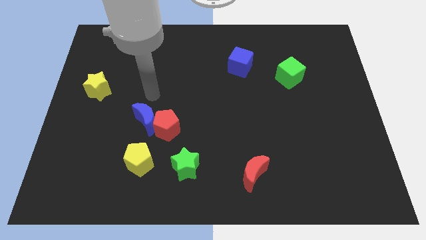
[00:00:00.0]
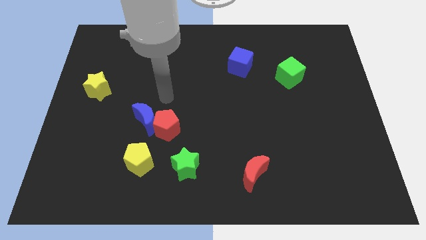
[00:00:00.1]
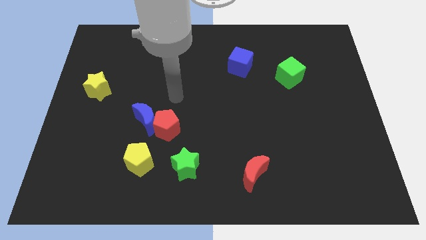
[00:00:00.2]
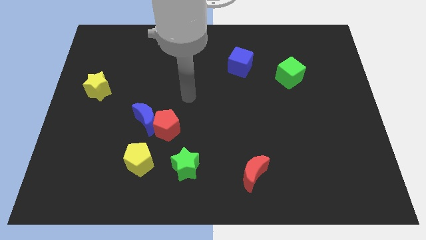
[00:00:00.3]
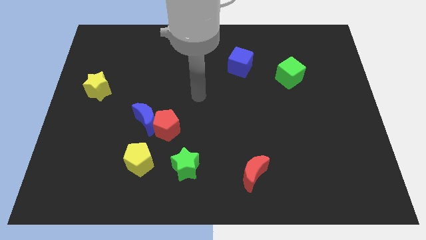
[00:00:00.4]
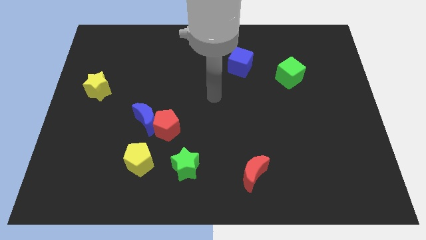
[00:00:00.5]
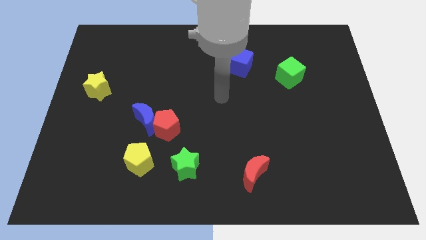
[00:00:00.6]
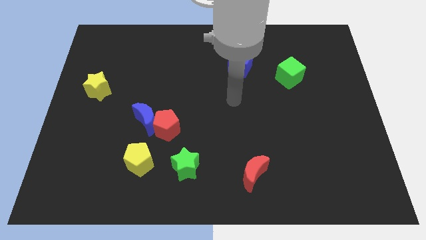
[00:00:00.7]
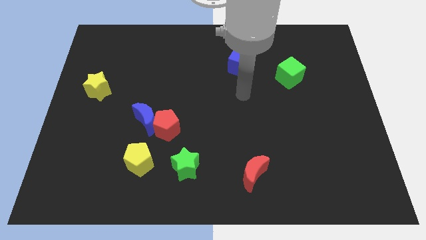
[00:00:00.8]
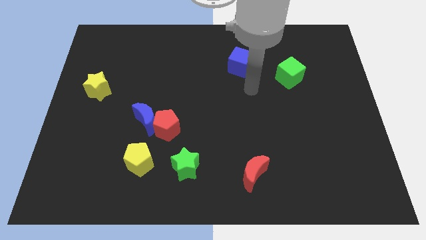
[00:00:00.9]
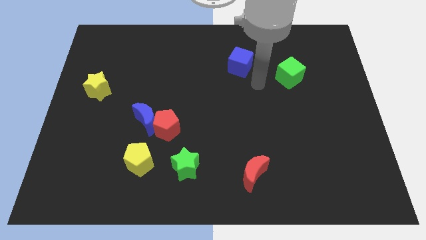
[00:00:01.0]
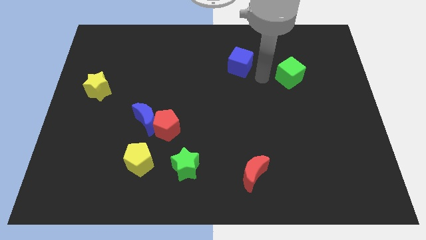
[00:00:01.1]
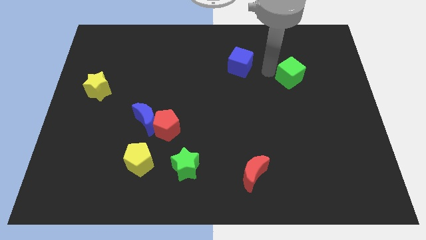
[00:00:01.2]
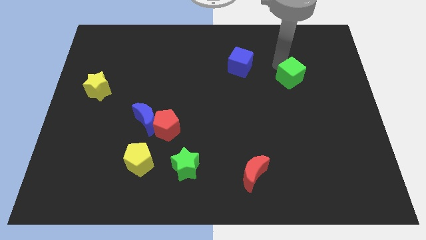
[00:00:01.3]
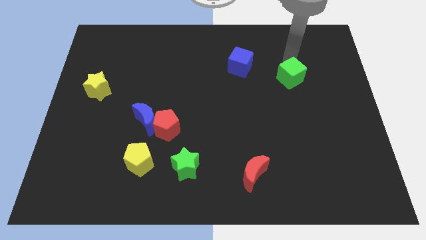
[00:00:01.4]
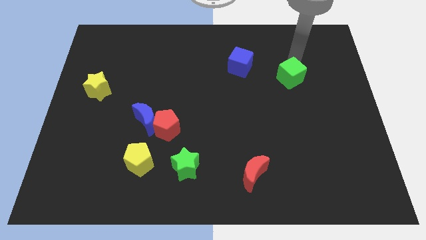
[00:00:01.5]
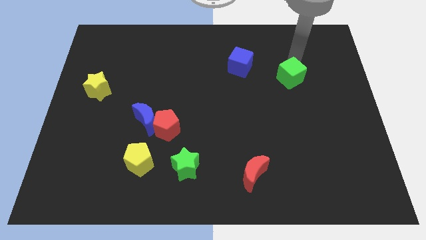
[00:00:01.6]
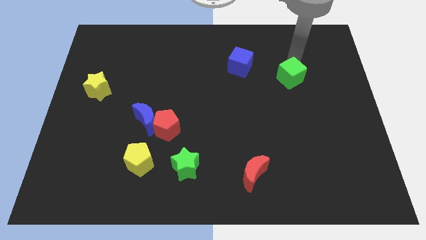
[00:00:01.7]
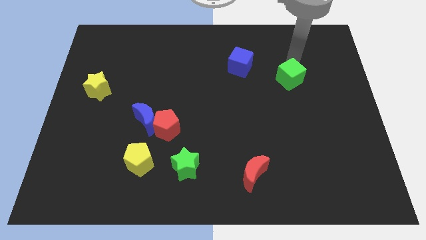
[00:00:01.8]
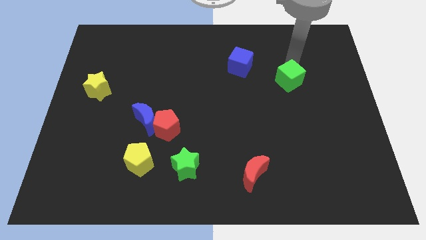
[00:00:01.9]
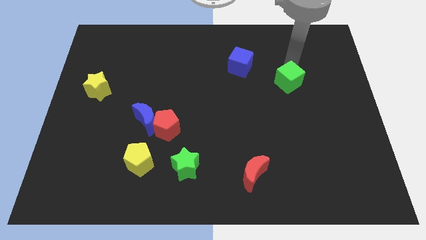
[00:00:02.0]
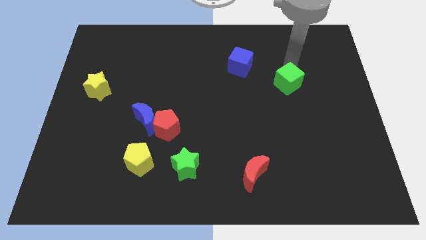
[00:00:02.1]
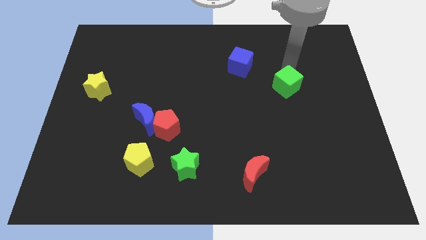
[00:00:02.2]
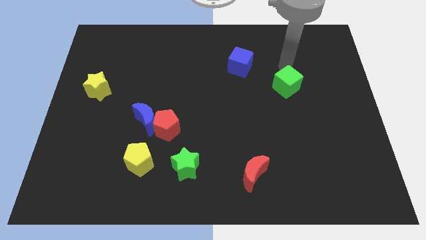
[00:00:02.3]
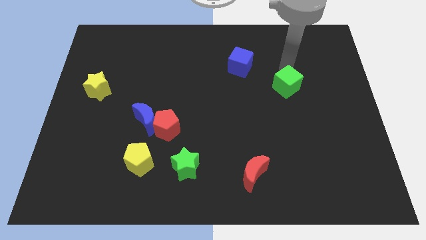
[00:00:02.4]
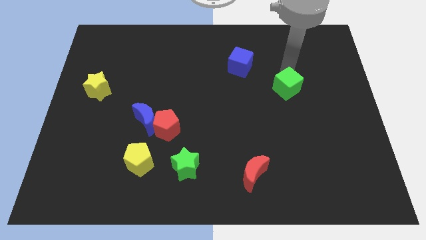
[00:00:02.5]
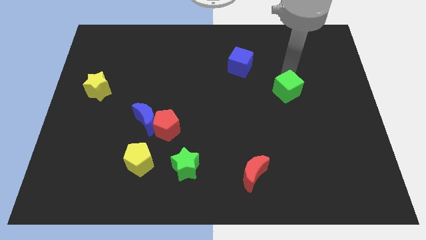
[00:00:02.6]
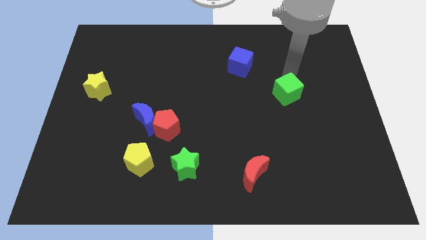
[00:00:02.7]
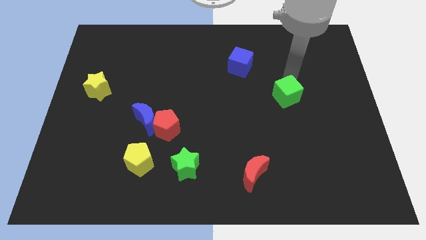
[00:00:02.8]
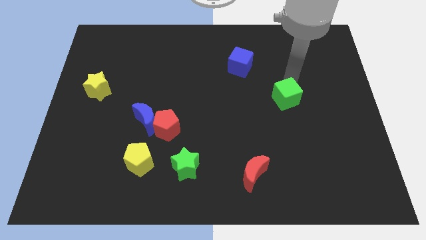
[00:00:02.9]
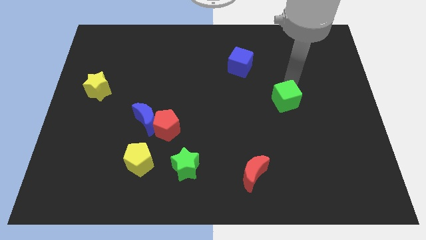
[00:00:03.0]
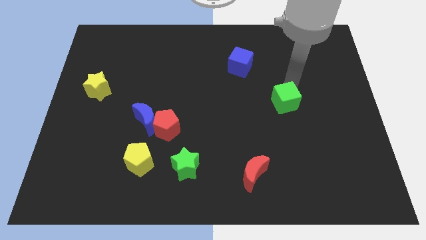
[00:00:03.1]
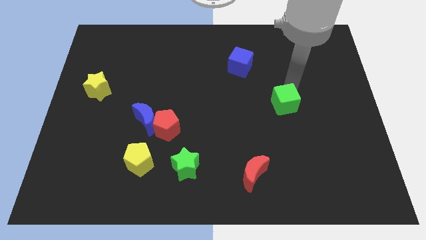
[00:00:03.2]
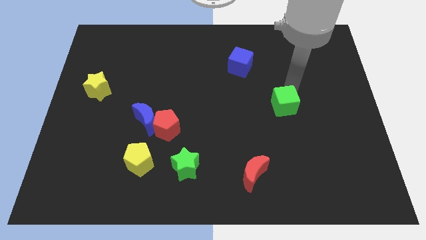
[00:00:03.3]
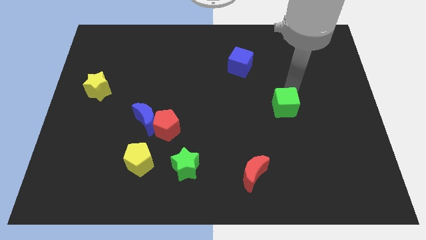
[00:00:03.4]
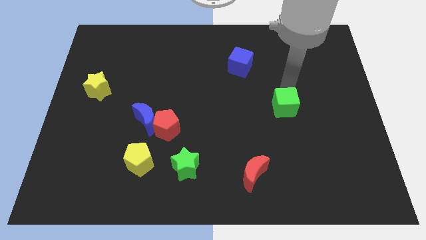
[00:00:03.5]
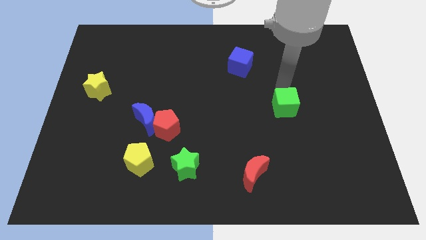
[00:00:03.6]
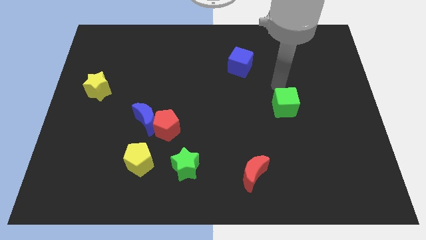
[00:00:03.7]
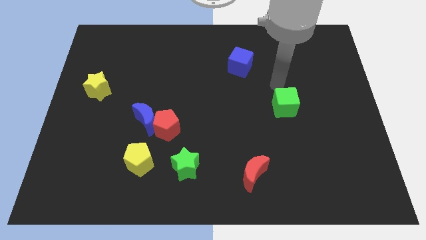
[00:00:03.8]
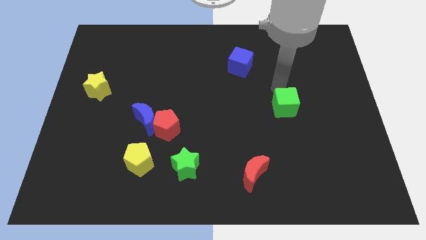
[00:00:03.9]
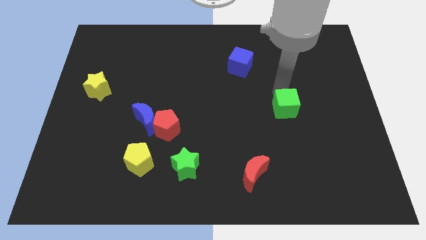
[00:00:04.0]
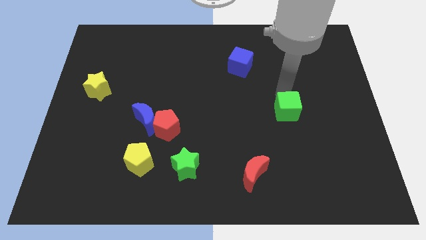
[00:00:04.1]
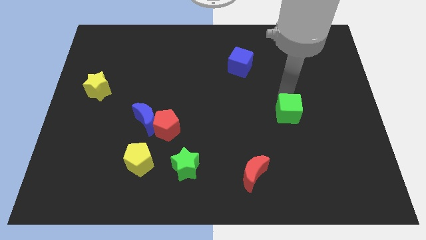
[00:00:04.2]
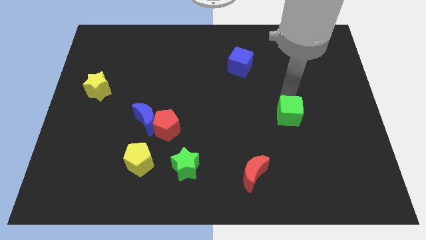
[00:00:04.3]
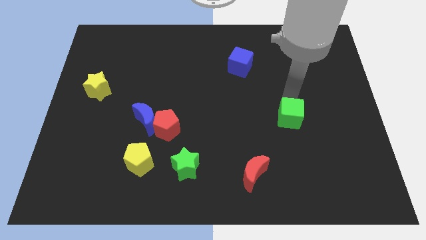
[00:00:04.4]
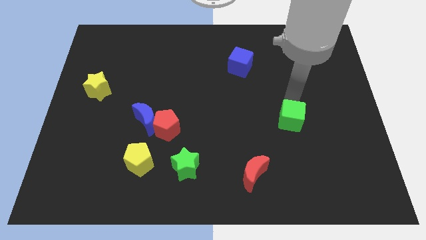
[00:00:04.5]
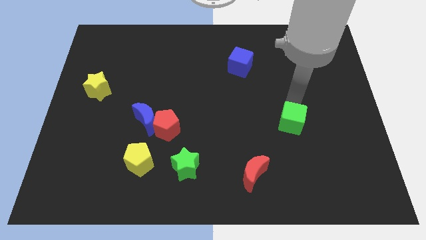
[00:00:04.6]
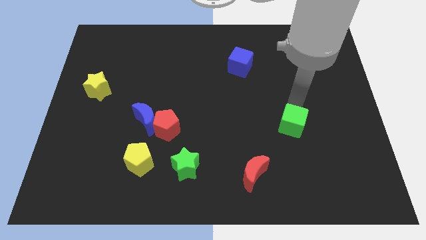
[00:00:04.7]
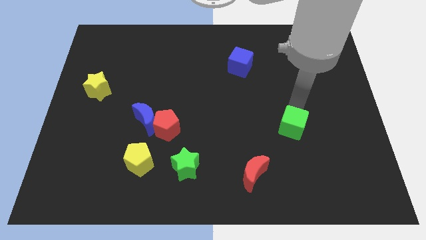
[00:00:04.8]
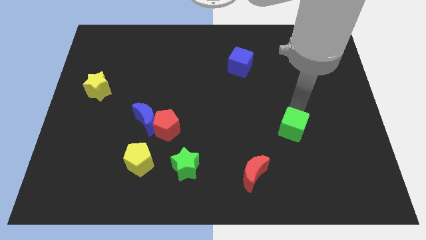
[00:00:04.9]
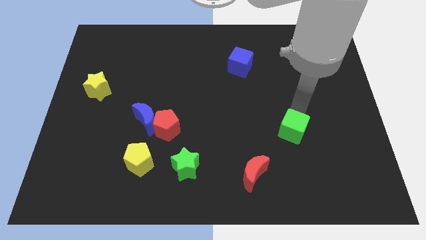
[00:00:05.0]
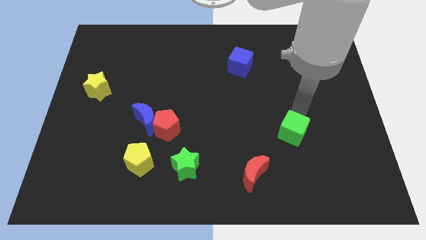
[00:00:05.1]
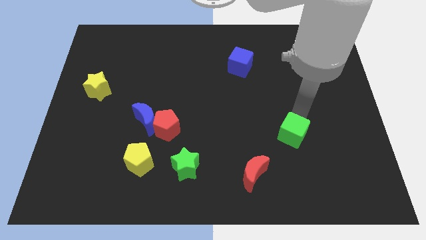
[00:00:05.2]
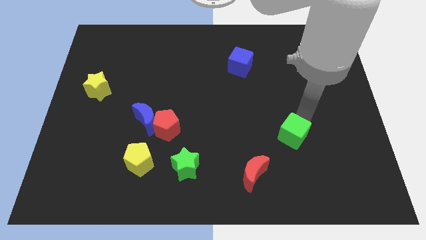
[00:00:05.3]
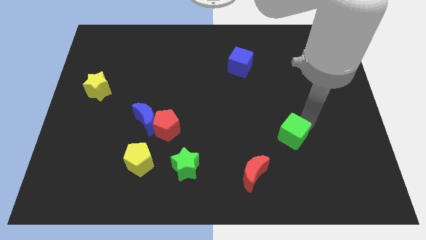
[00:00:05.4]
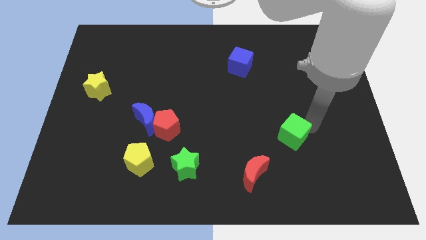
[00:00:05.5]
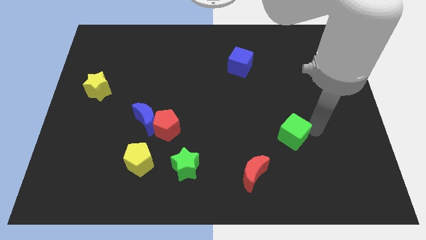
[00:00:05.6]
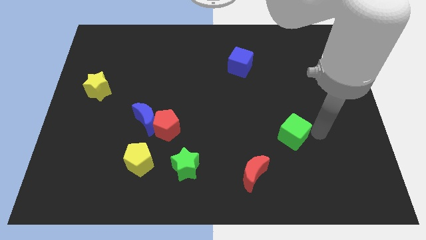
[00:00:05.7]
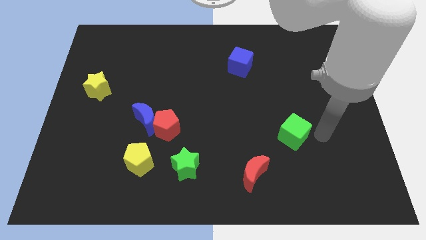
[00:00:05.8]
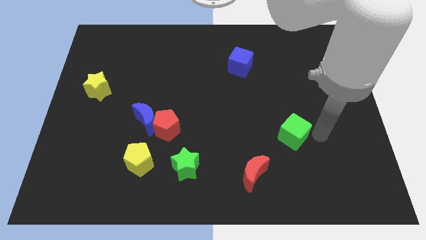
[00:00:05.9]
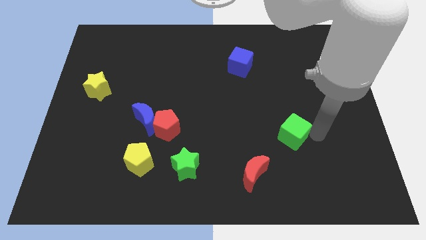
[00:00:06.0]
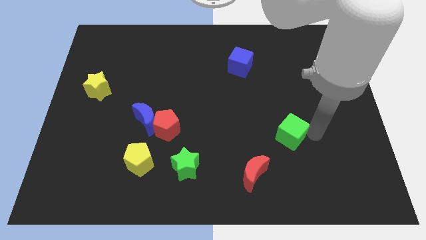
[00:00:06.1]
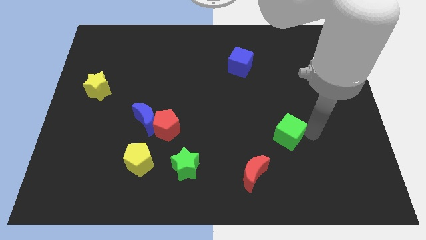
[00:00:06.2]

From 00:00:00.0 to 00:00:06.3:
push the green cube to the top right side of the red moon
